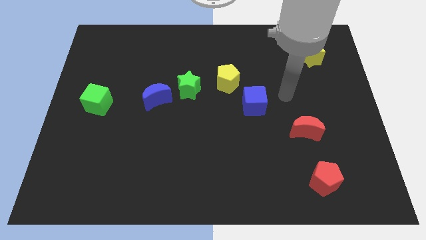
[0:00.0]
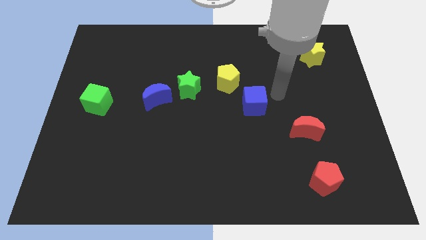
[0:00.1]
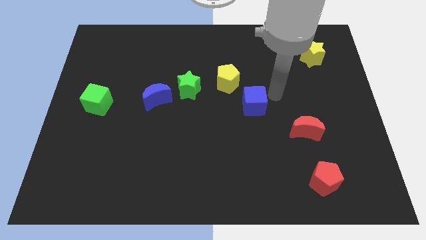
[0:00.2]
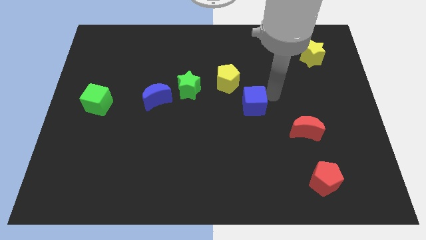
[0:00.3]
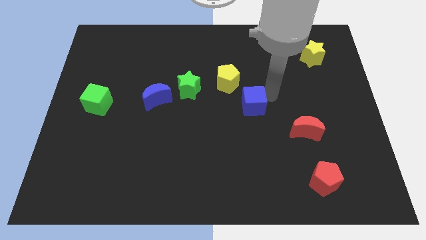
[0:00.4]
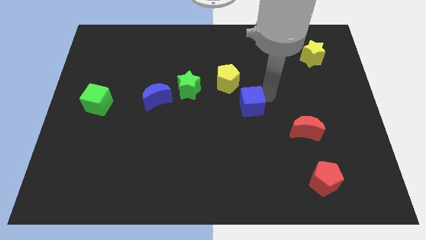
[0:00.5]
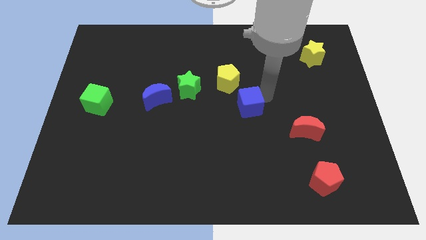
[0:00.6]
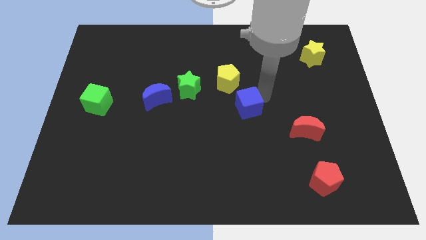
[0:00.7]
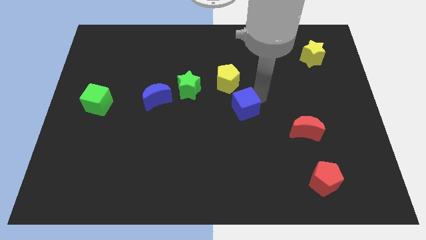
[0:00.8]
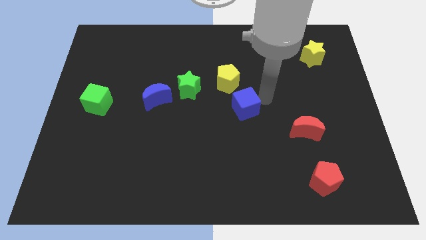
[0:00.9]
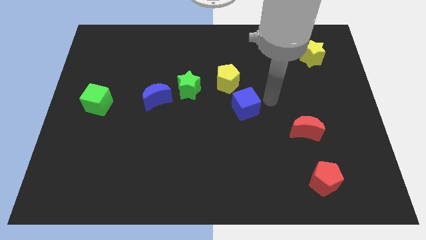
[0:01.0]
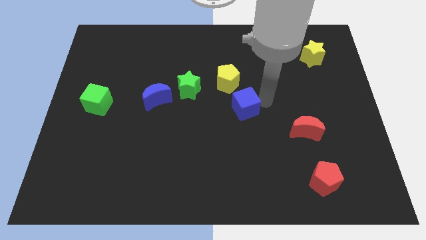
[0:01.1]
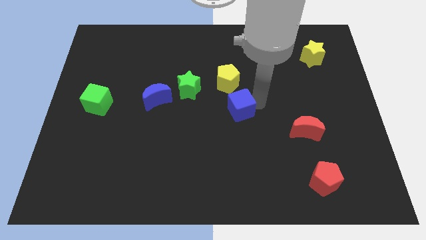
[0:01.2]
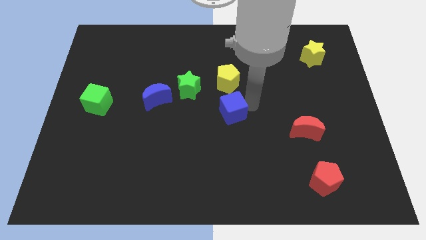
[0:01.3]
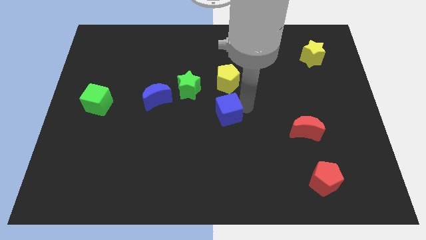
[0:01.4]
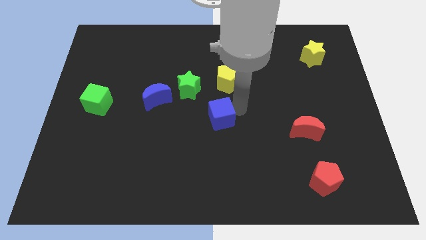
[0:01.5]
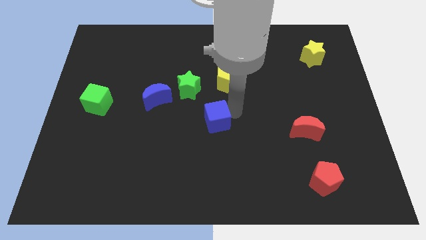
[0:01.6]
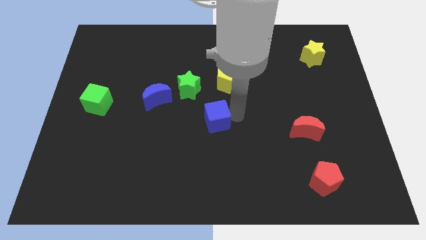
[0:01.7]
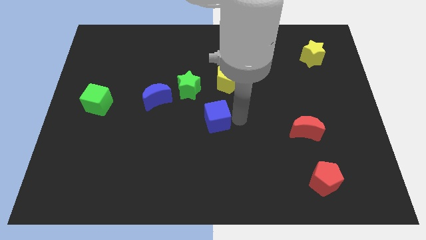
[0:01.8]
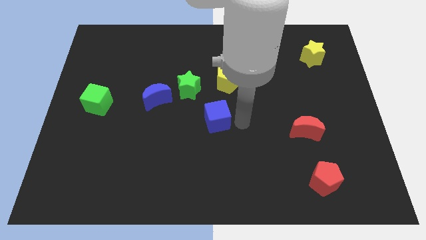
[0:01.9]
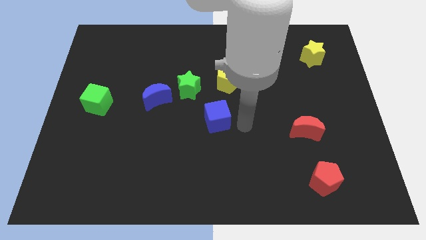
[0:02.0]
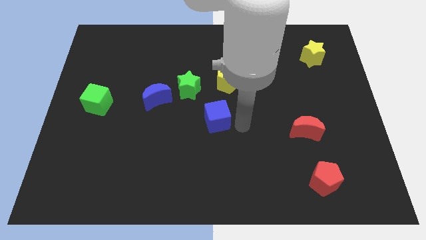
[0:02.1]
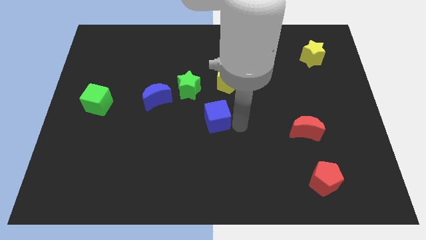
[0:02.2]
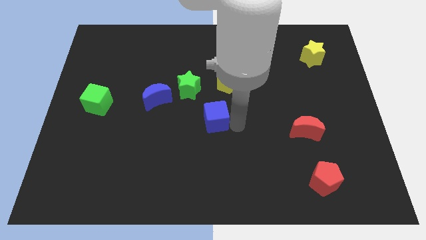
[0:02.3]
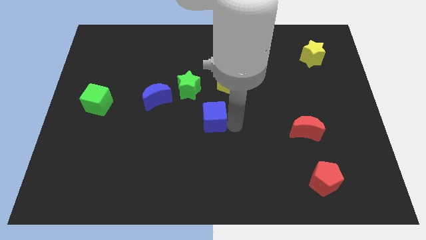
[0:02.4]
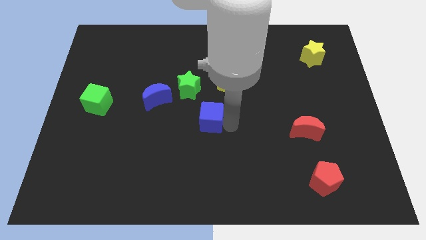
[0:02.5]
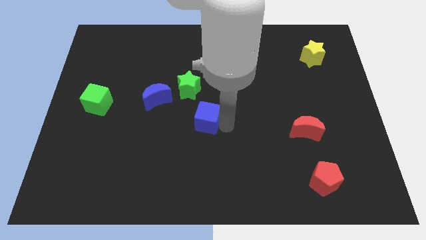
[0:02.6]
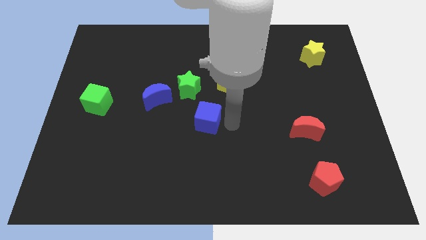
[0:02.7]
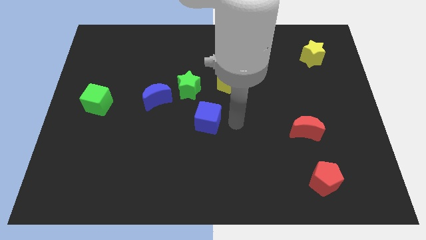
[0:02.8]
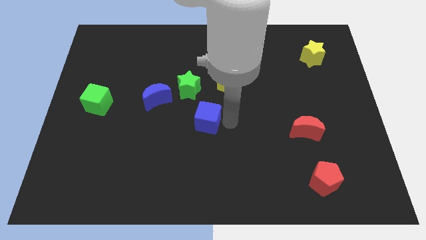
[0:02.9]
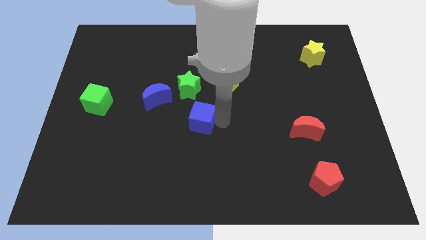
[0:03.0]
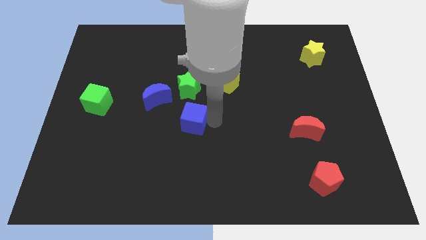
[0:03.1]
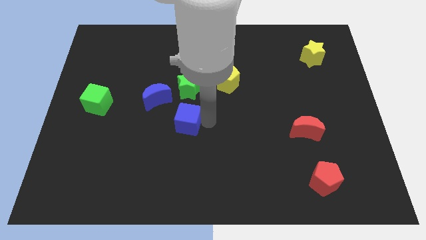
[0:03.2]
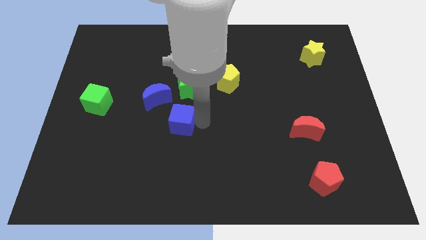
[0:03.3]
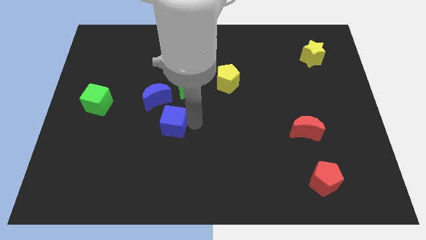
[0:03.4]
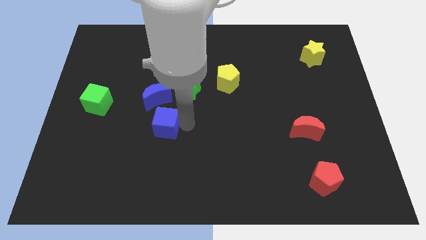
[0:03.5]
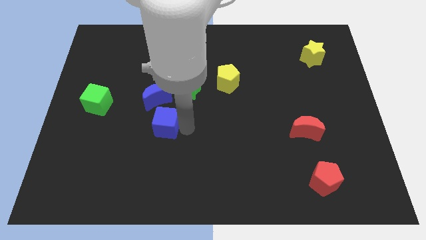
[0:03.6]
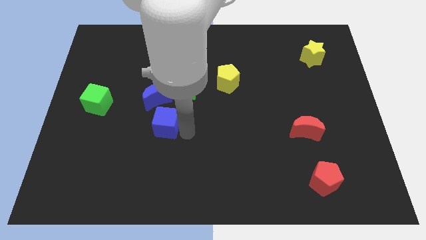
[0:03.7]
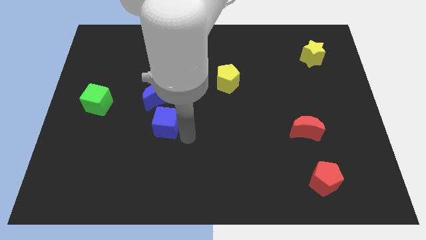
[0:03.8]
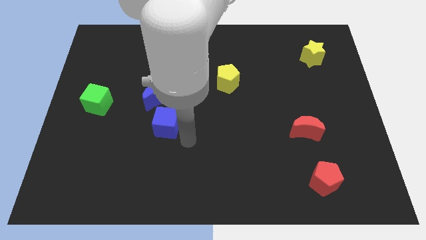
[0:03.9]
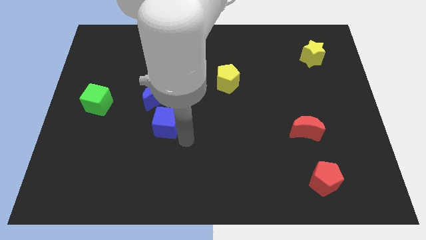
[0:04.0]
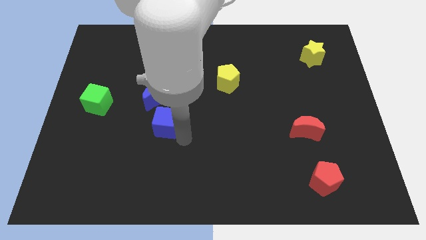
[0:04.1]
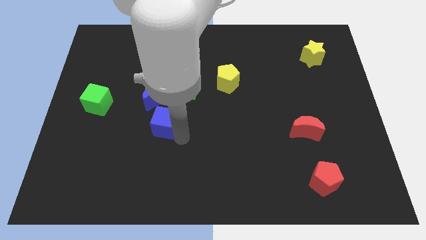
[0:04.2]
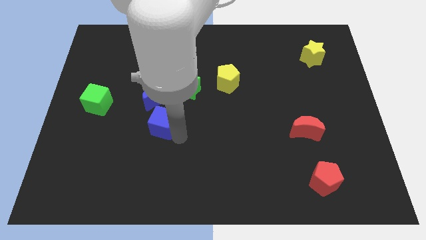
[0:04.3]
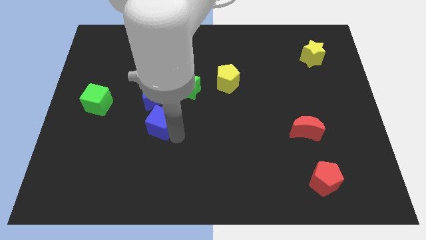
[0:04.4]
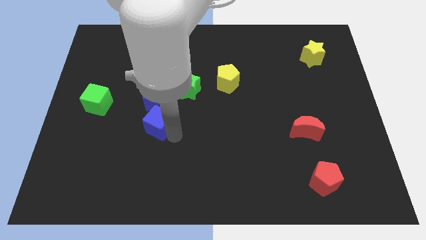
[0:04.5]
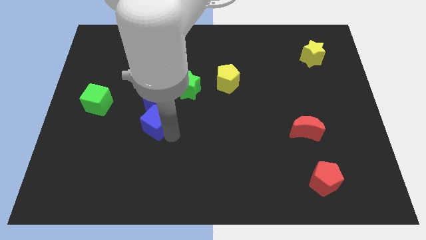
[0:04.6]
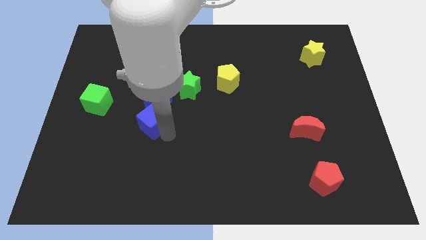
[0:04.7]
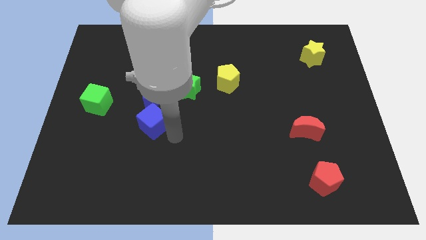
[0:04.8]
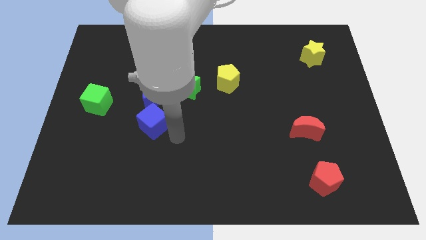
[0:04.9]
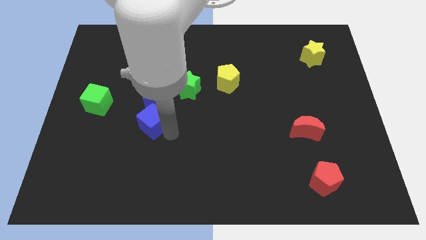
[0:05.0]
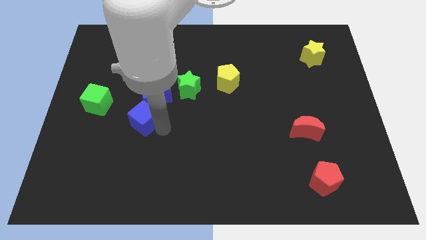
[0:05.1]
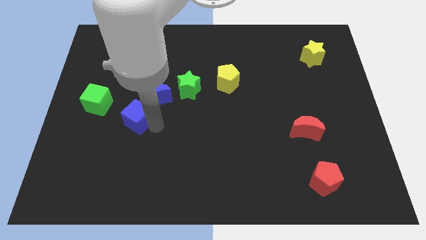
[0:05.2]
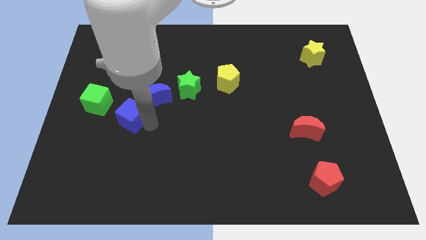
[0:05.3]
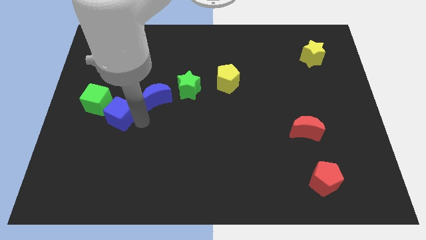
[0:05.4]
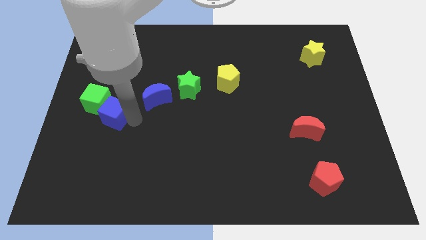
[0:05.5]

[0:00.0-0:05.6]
slide the blue cube close to the green cube
